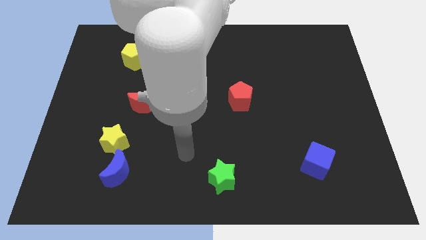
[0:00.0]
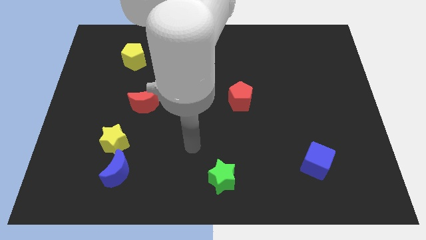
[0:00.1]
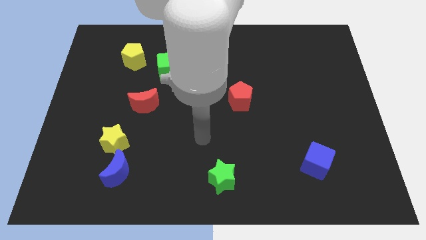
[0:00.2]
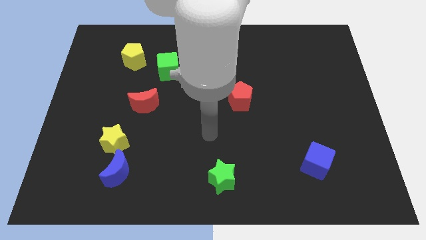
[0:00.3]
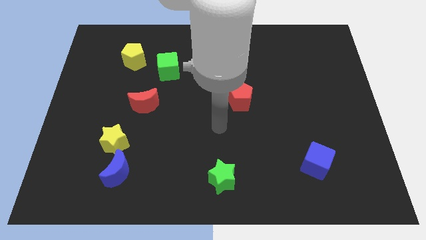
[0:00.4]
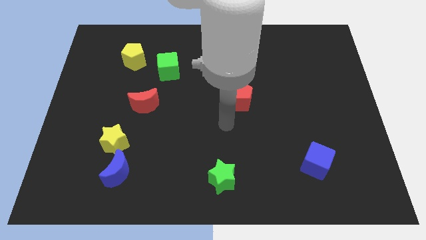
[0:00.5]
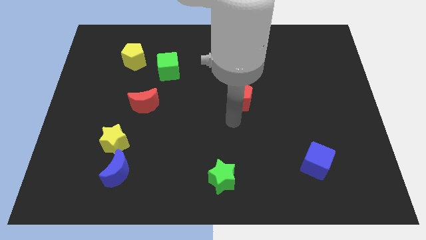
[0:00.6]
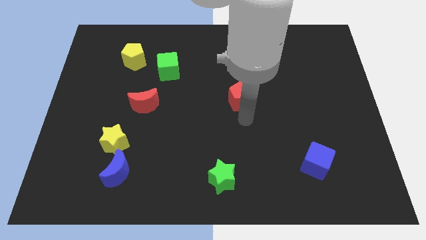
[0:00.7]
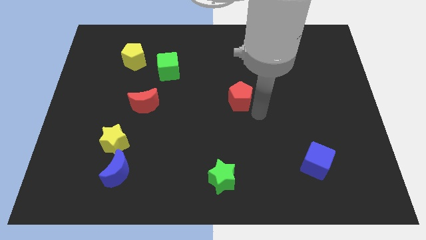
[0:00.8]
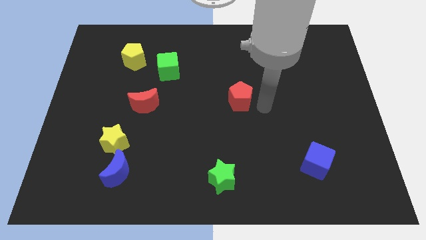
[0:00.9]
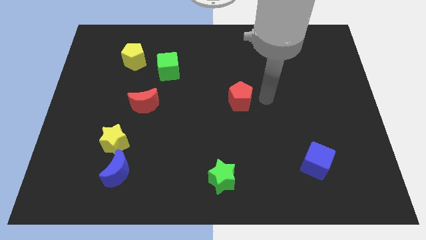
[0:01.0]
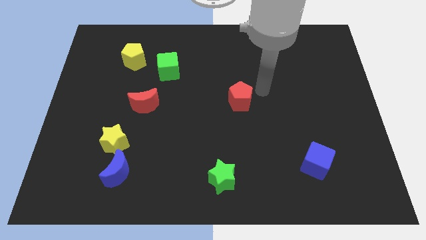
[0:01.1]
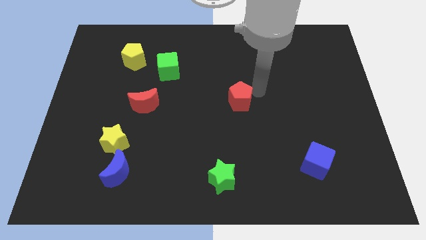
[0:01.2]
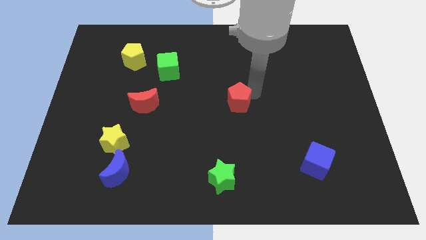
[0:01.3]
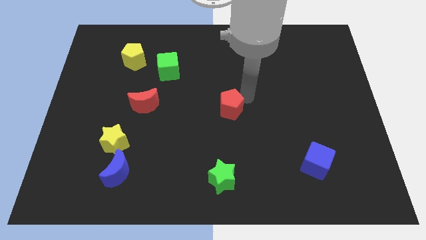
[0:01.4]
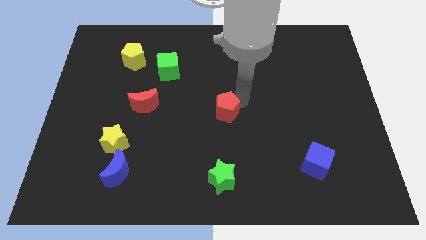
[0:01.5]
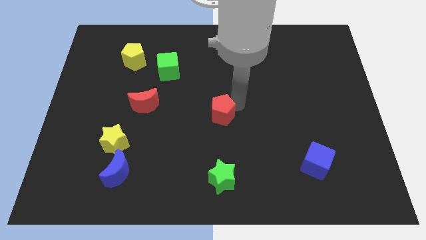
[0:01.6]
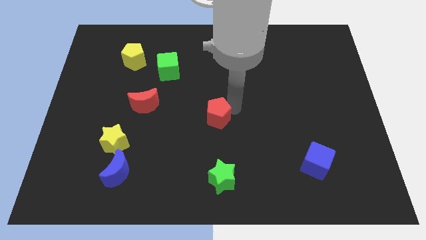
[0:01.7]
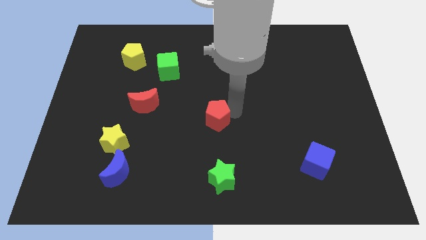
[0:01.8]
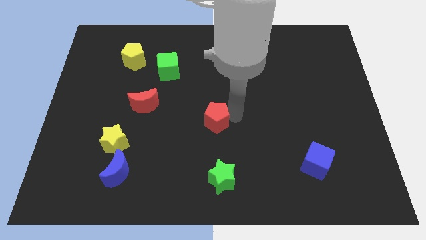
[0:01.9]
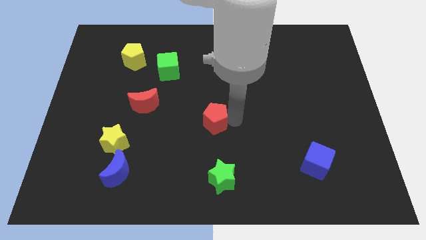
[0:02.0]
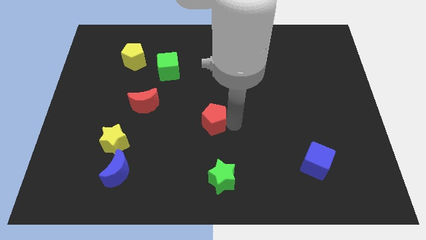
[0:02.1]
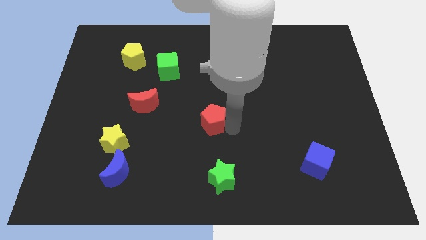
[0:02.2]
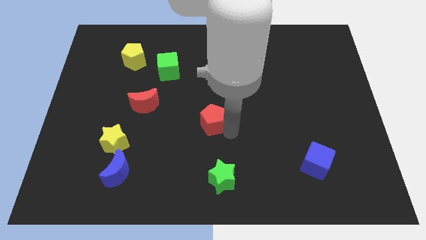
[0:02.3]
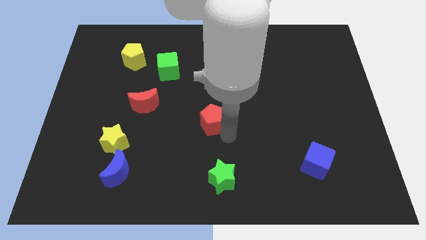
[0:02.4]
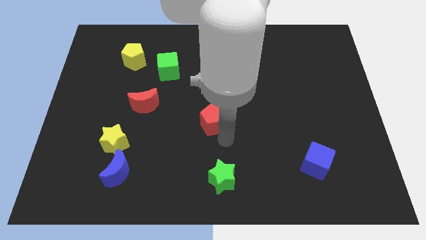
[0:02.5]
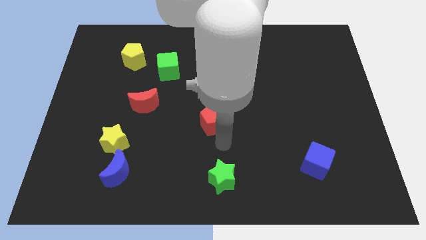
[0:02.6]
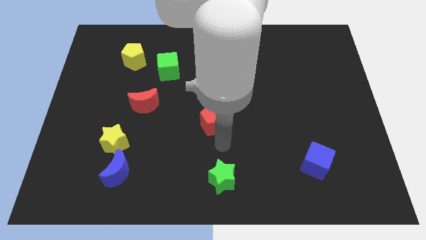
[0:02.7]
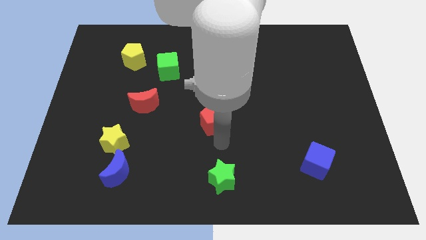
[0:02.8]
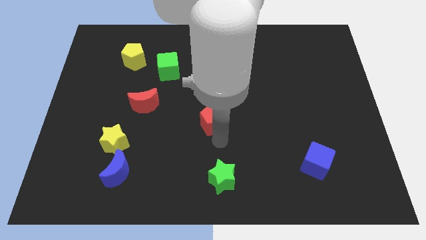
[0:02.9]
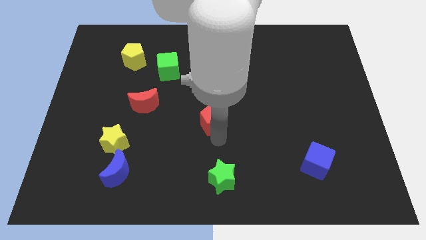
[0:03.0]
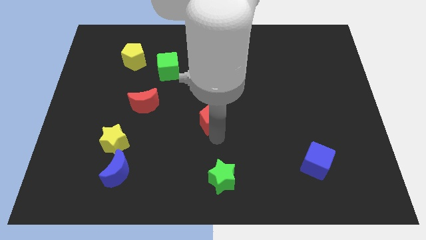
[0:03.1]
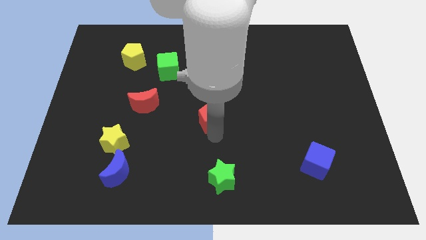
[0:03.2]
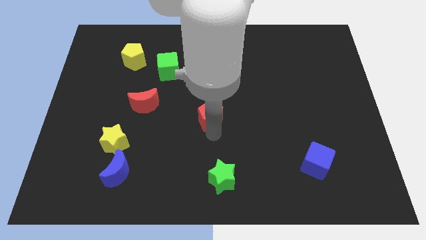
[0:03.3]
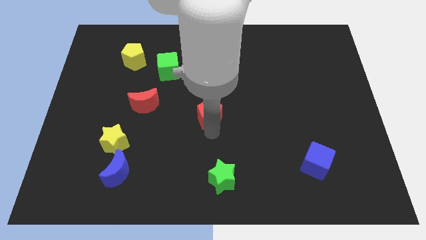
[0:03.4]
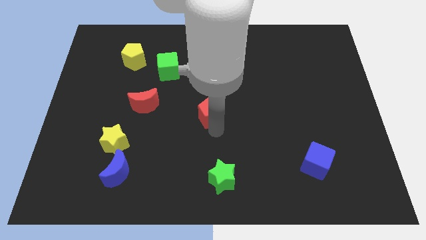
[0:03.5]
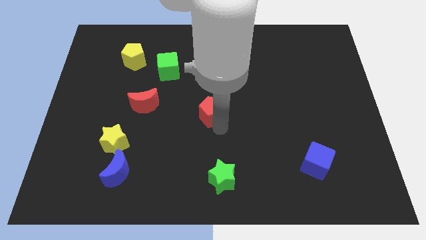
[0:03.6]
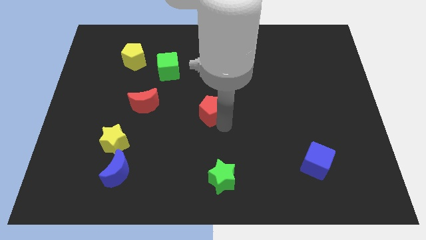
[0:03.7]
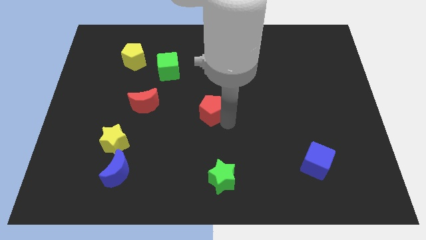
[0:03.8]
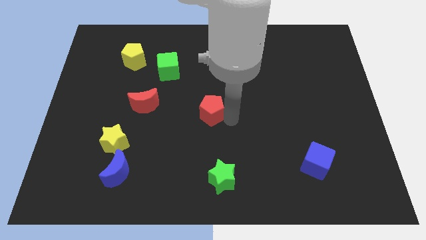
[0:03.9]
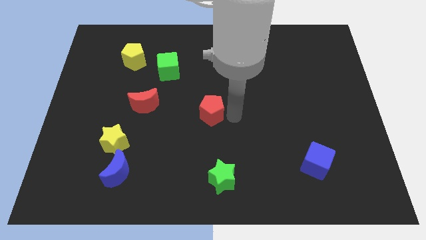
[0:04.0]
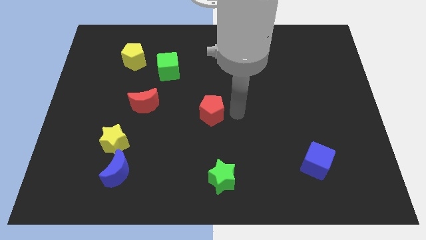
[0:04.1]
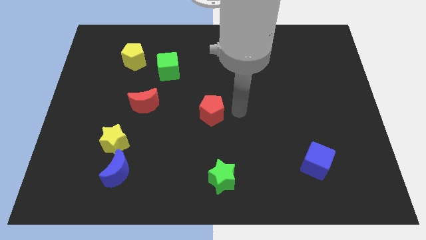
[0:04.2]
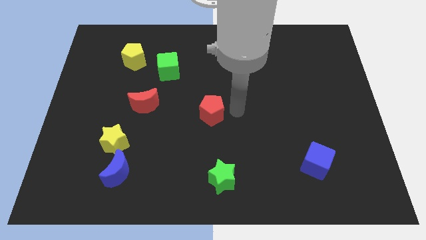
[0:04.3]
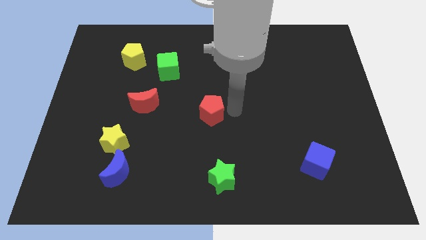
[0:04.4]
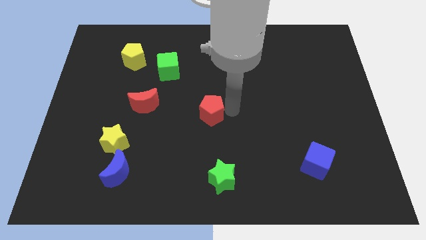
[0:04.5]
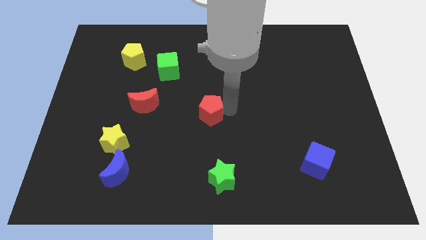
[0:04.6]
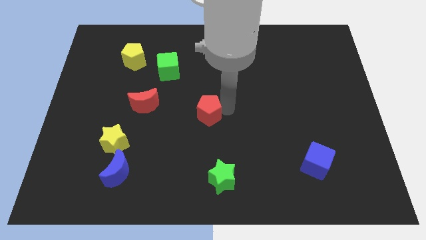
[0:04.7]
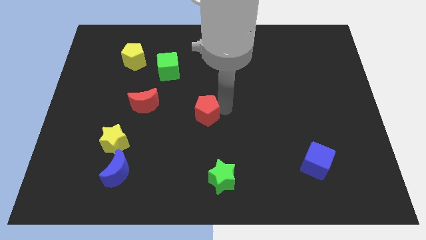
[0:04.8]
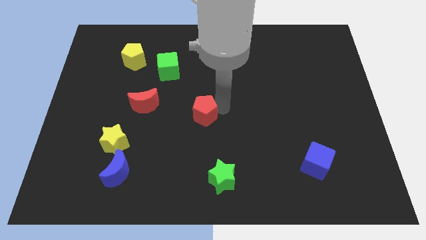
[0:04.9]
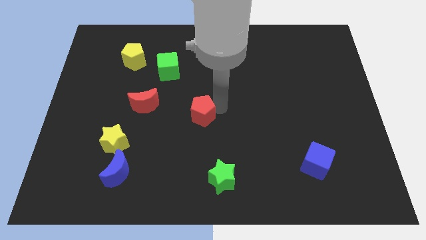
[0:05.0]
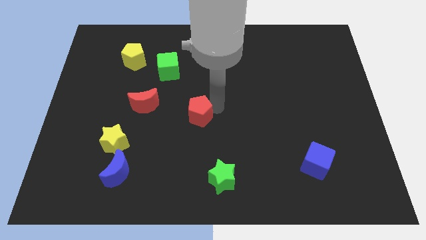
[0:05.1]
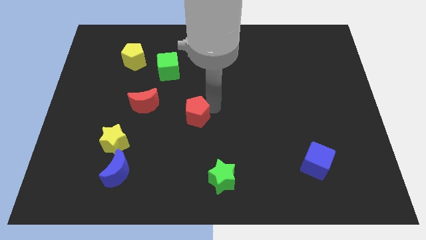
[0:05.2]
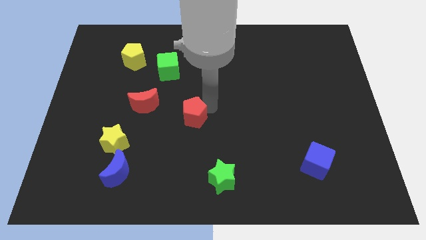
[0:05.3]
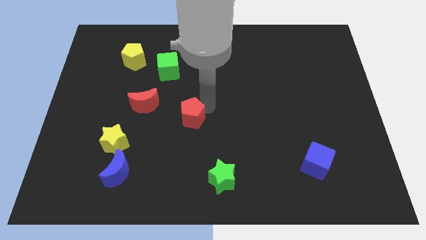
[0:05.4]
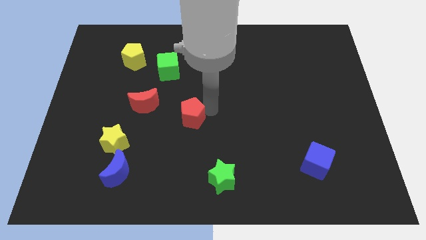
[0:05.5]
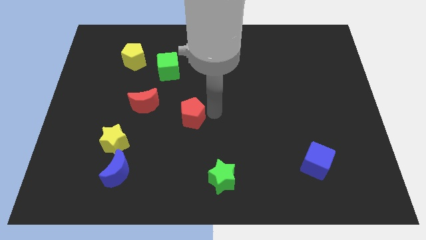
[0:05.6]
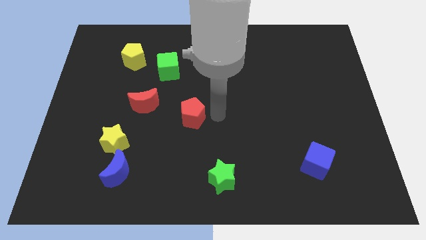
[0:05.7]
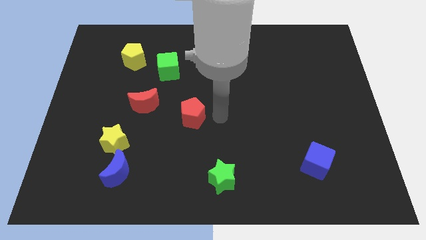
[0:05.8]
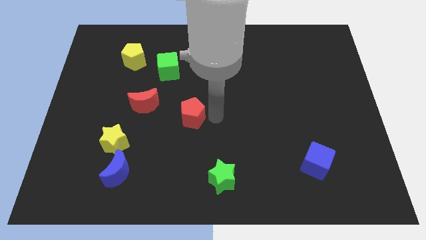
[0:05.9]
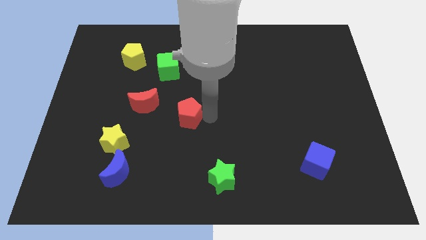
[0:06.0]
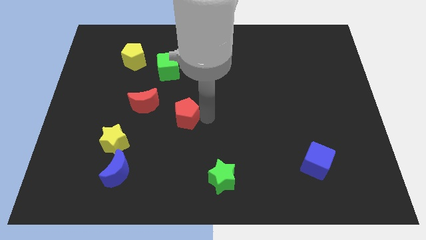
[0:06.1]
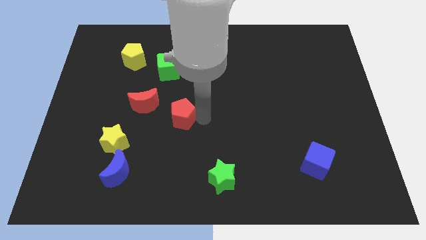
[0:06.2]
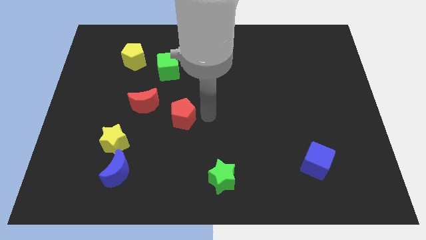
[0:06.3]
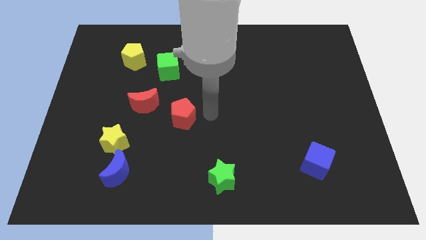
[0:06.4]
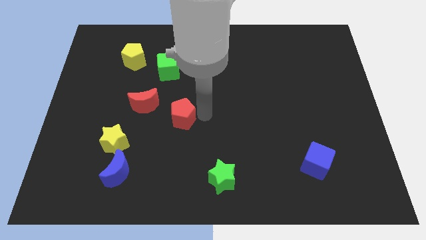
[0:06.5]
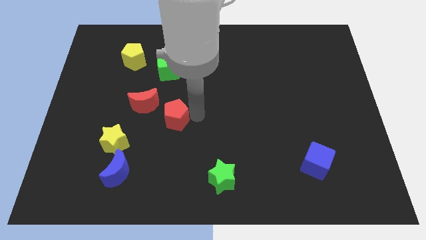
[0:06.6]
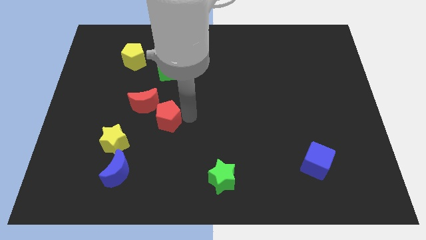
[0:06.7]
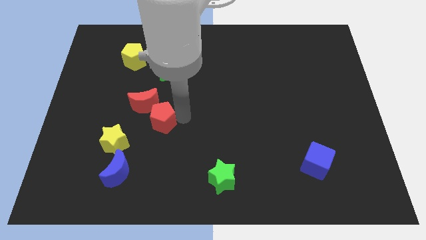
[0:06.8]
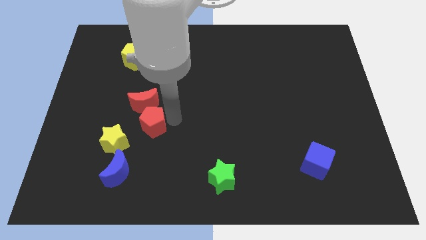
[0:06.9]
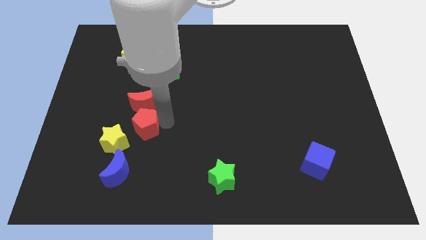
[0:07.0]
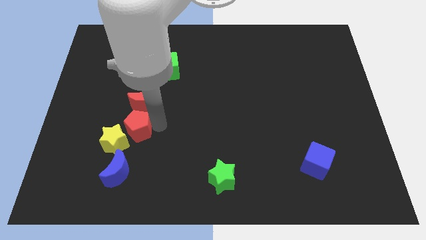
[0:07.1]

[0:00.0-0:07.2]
push the red pentagon to the top side of the yellow star
